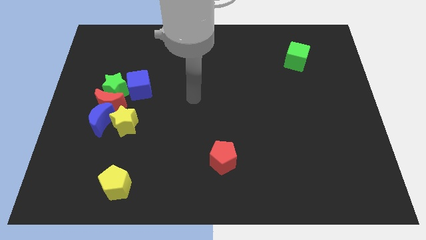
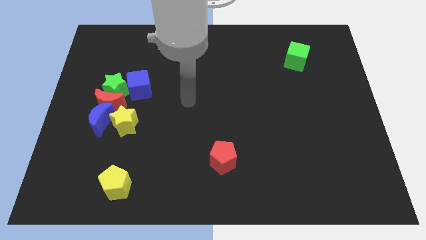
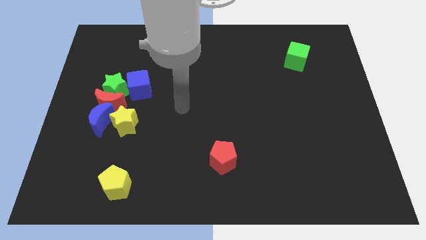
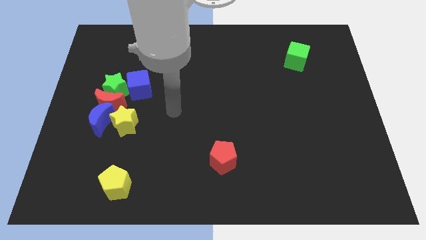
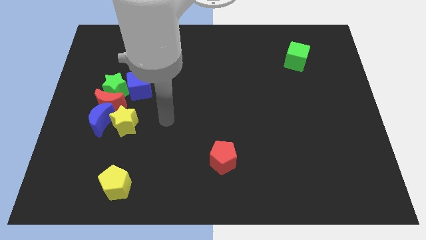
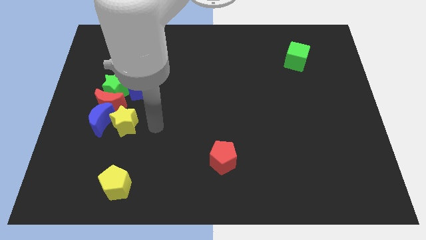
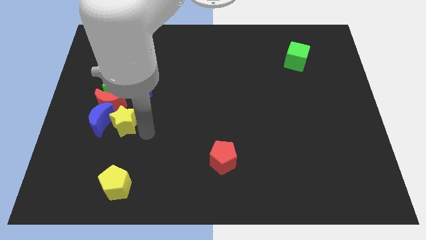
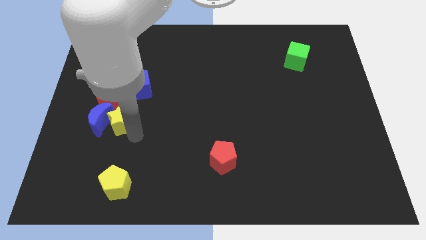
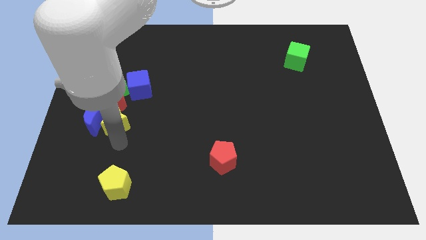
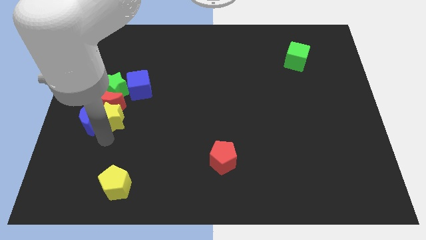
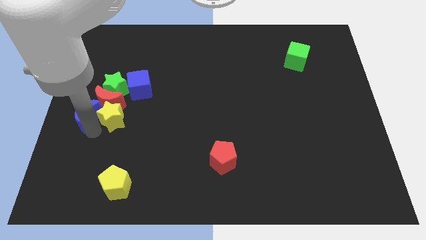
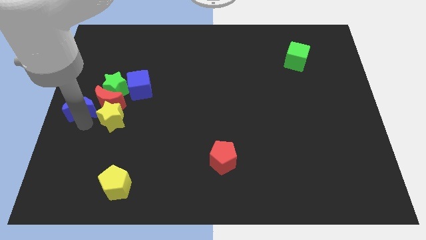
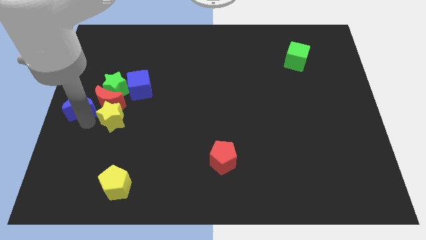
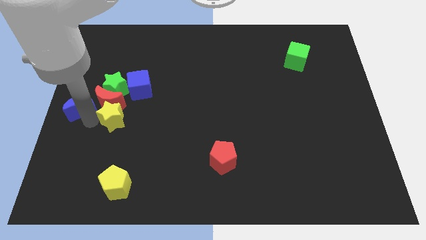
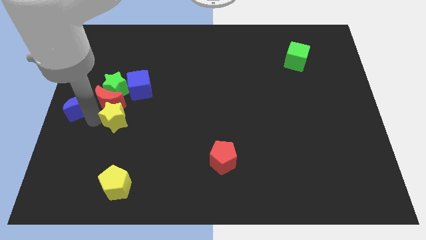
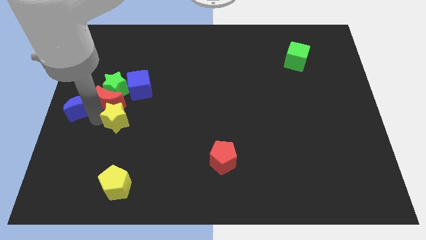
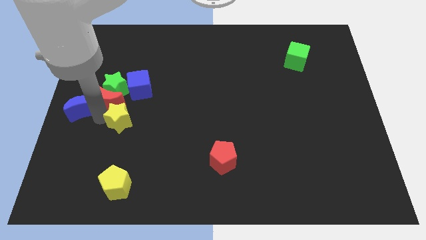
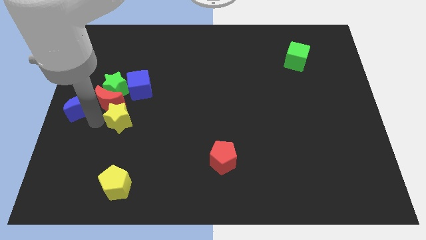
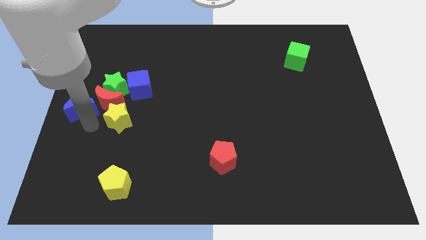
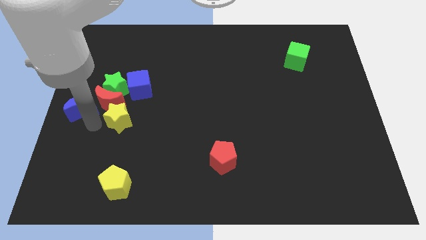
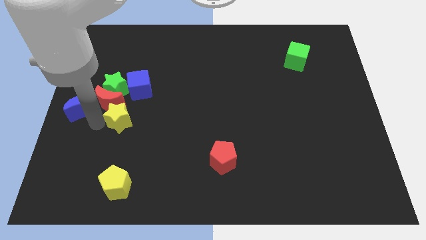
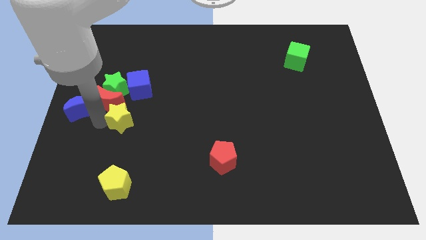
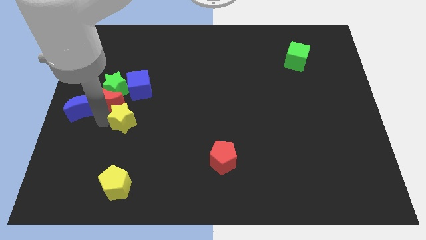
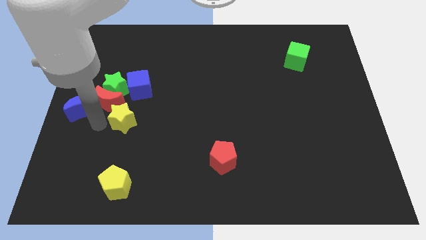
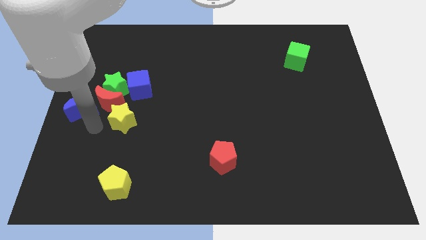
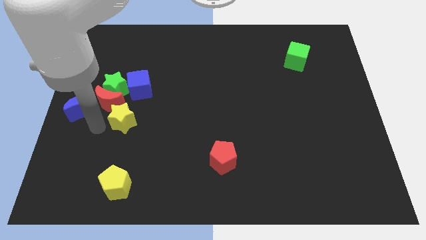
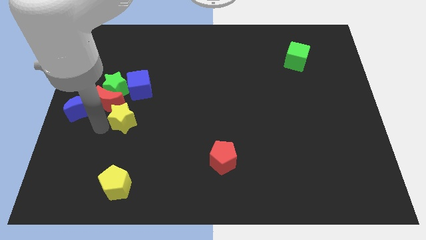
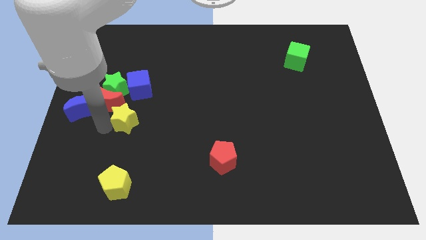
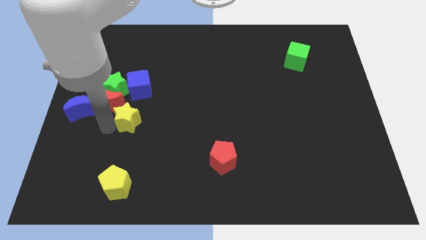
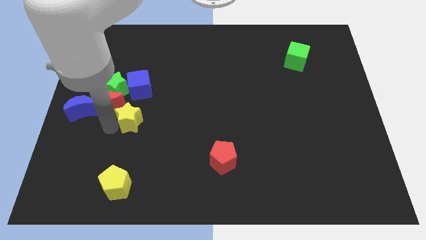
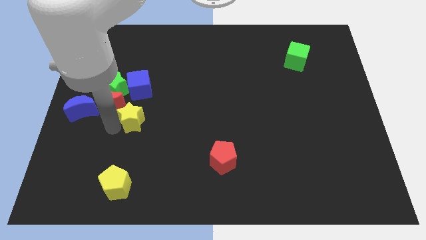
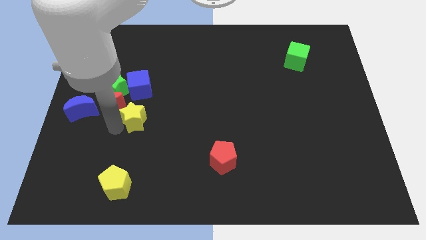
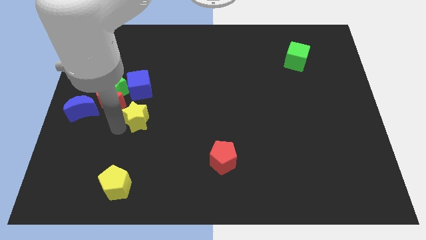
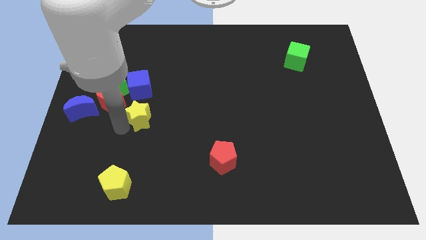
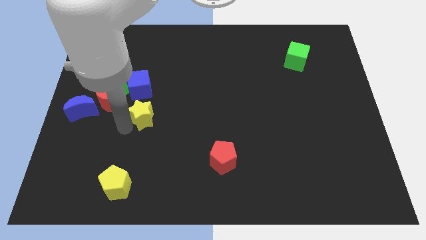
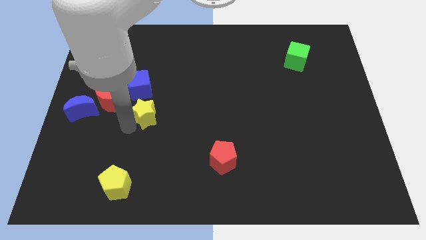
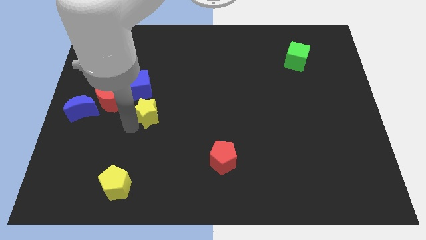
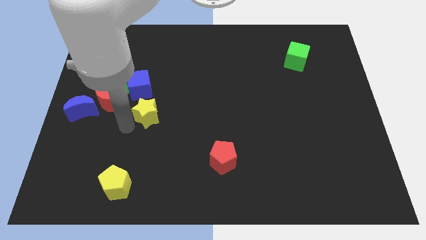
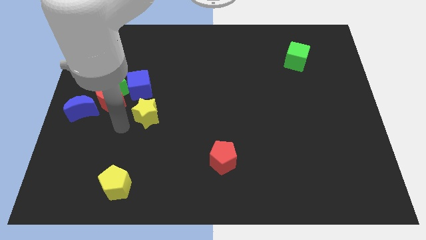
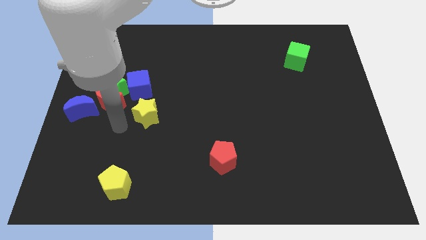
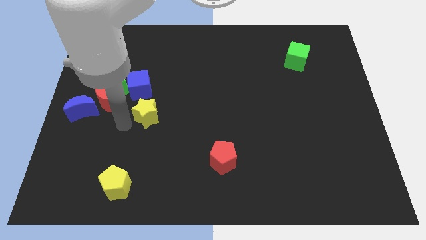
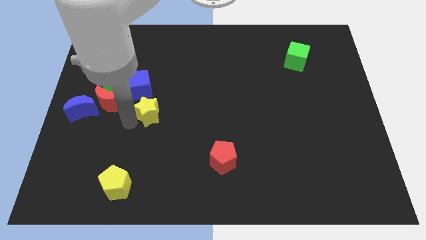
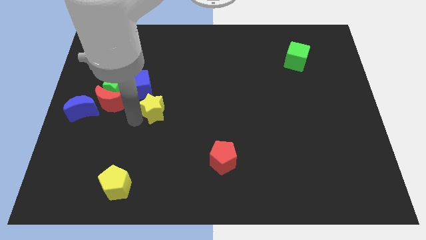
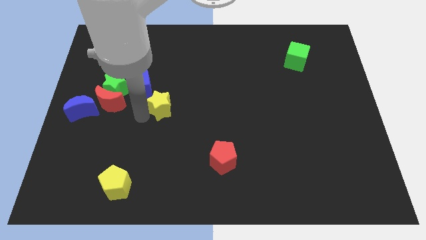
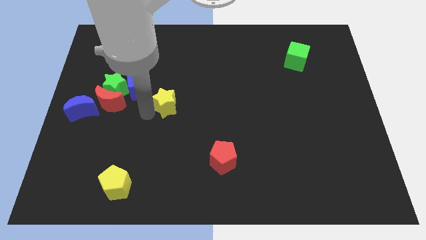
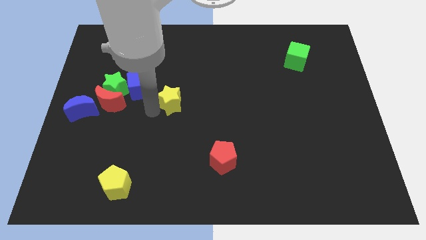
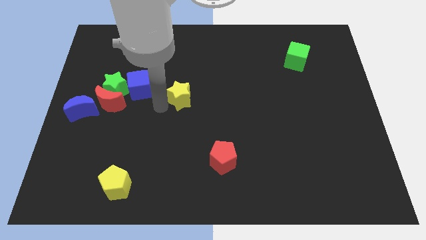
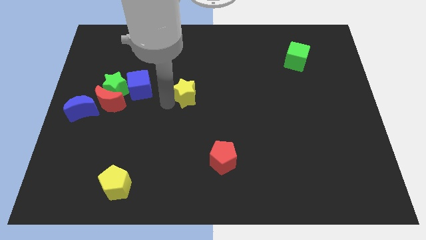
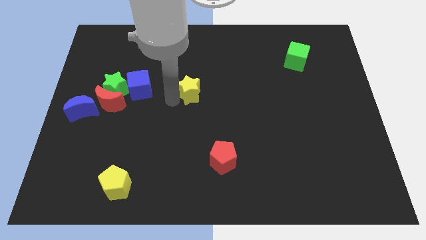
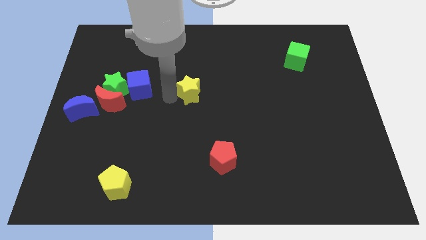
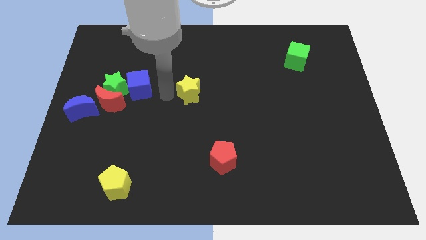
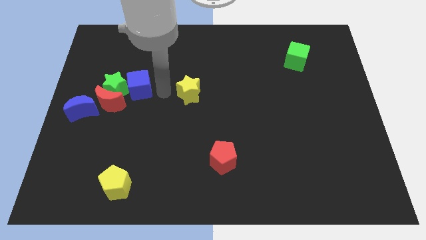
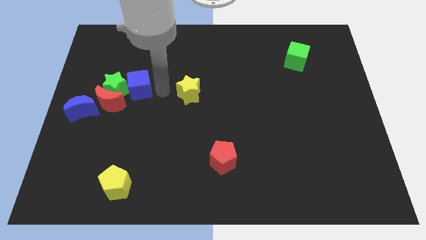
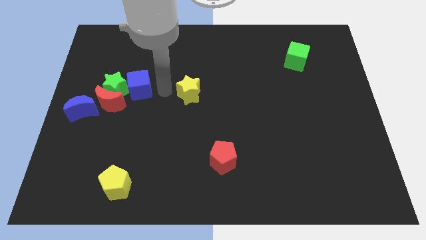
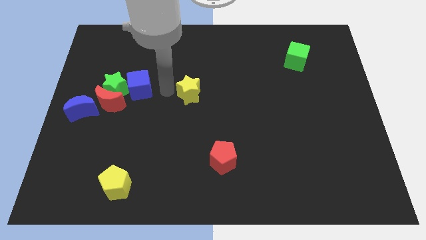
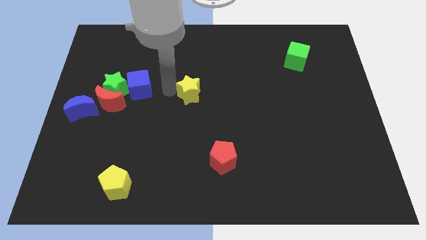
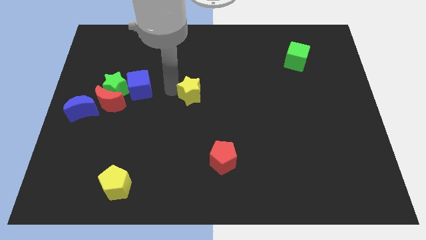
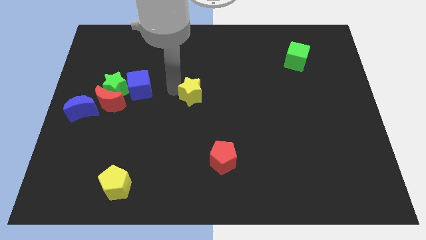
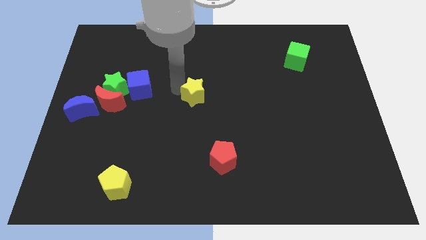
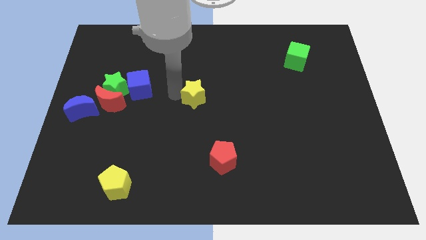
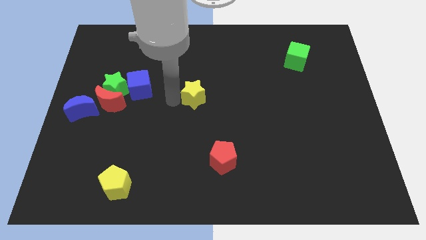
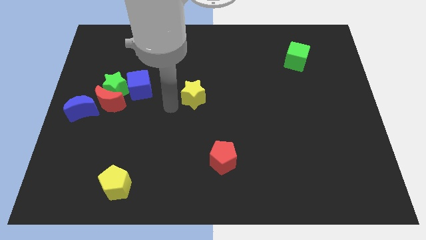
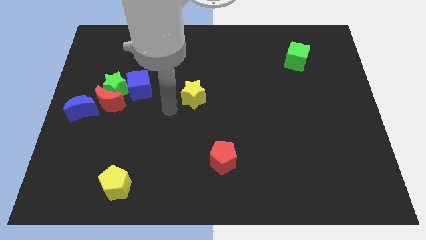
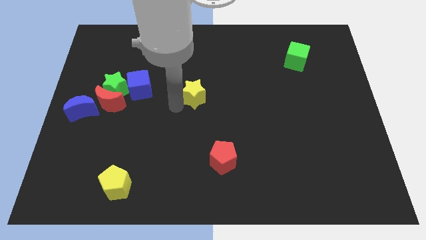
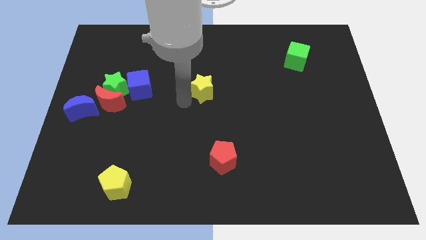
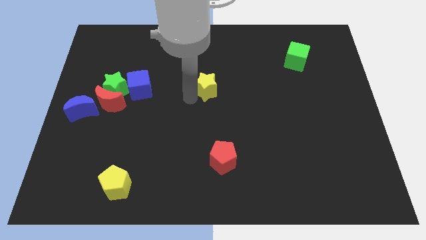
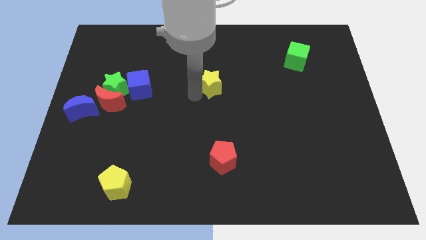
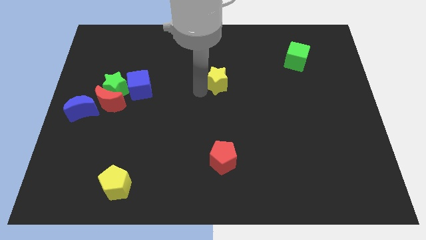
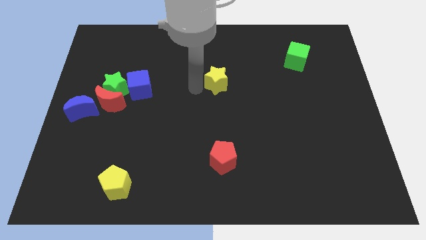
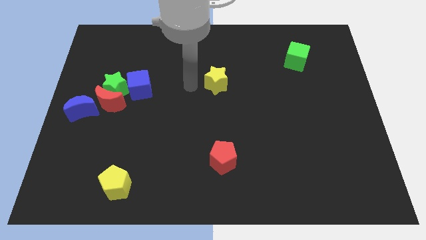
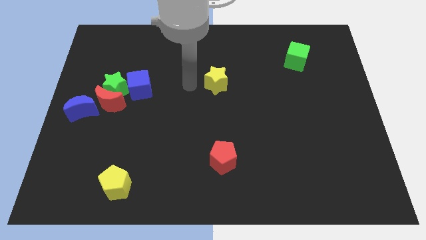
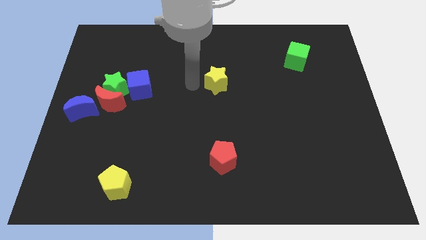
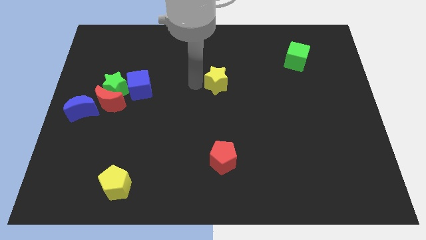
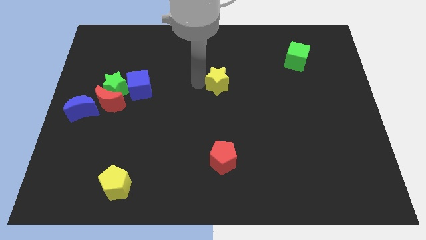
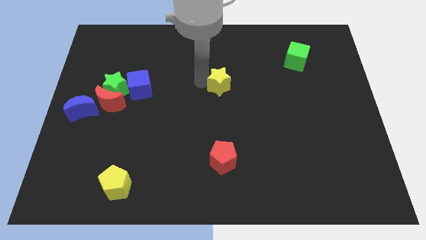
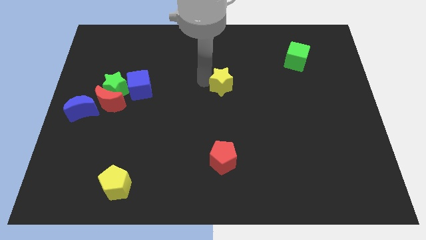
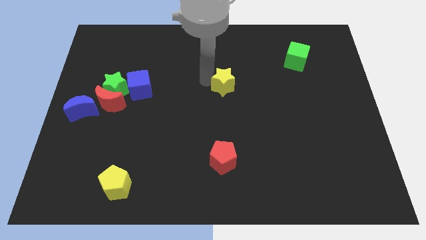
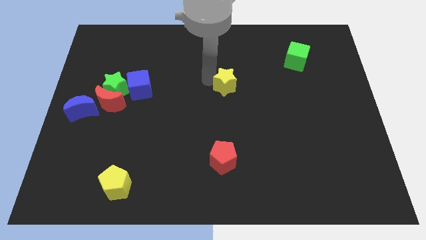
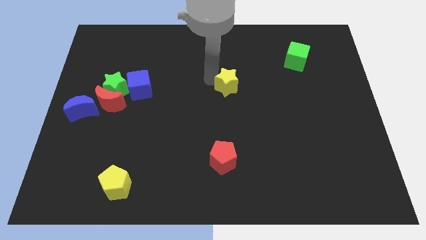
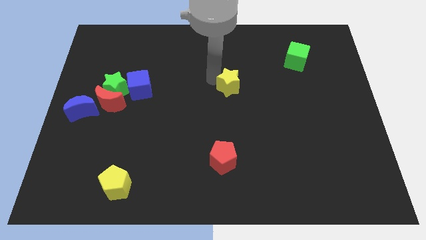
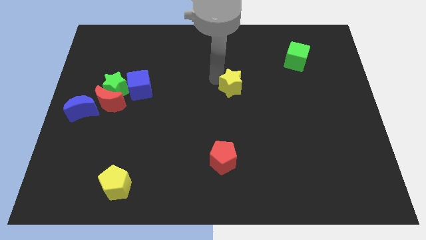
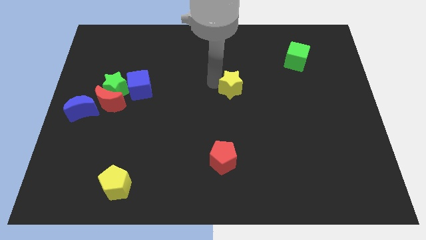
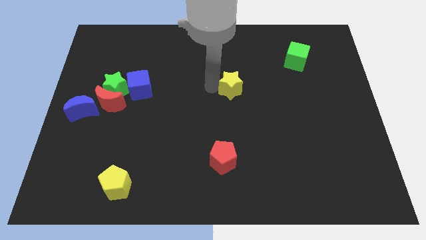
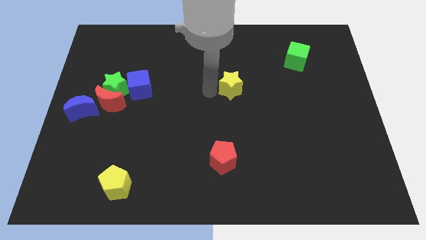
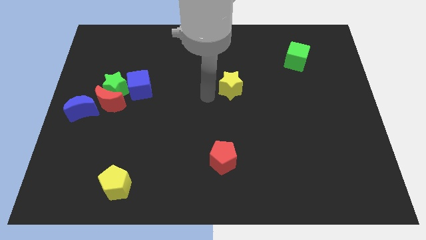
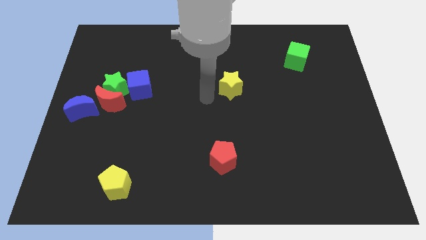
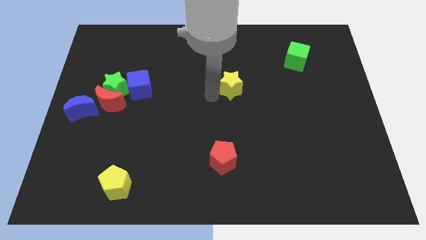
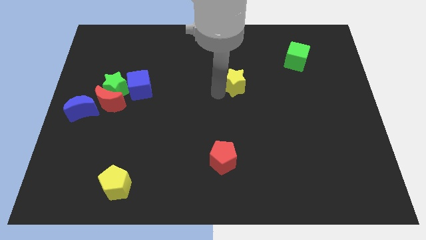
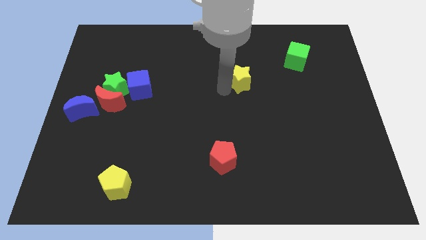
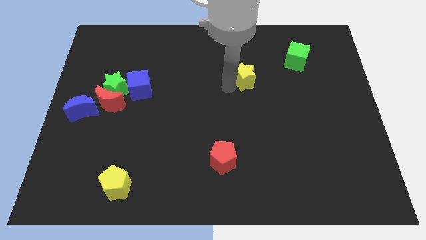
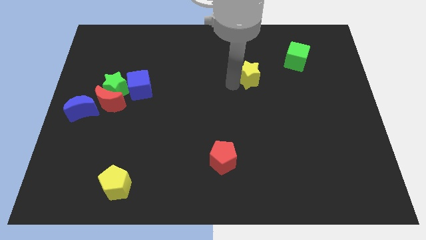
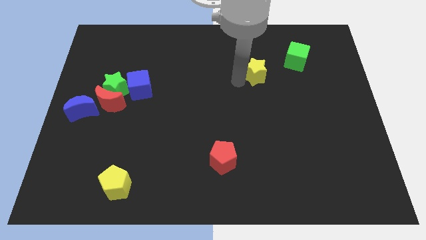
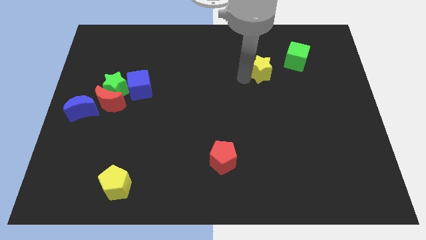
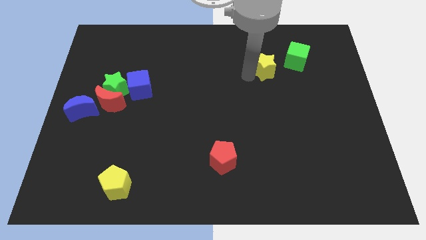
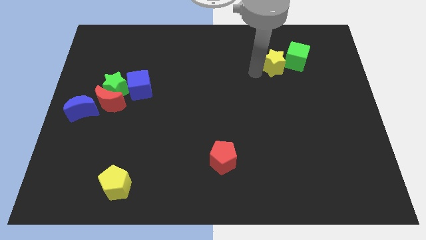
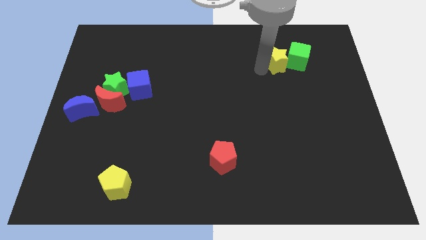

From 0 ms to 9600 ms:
move the yellow star to the green cube
